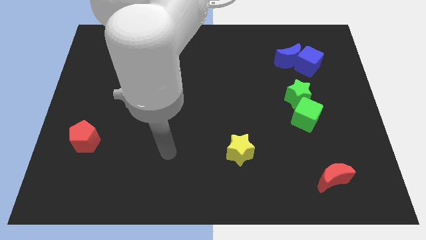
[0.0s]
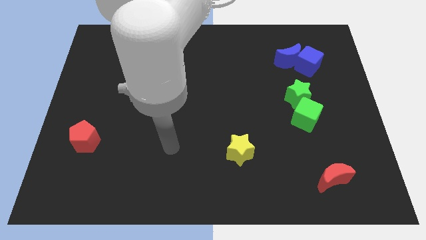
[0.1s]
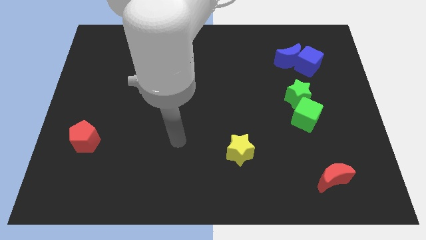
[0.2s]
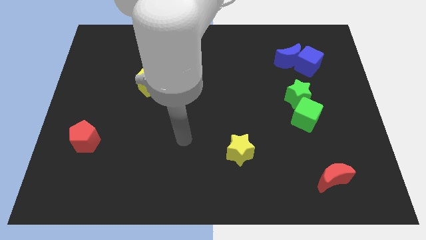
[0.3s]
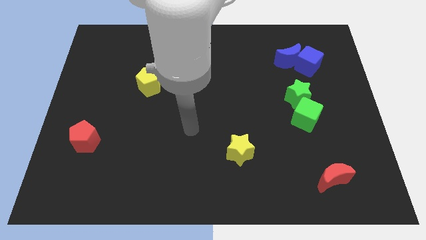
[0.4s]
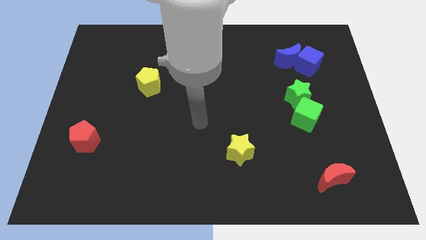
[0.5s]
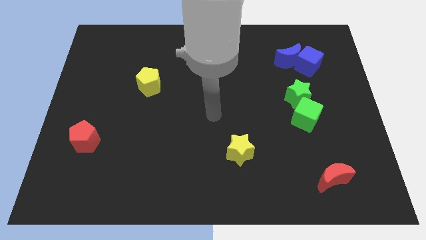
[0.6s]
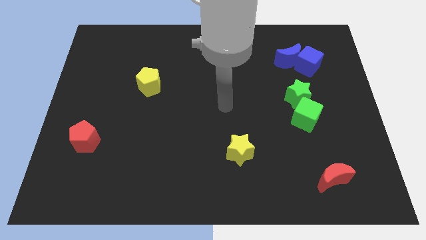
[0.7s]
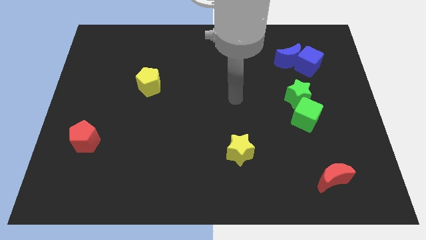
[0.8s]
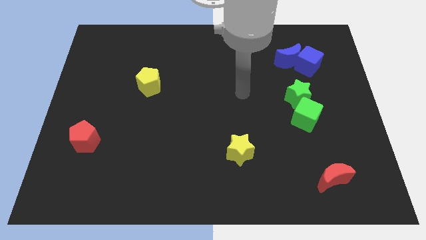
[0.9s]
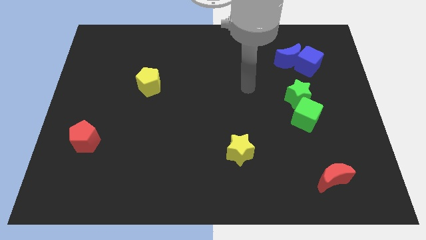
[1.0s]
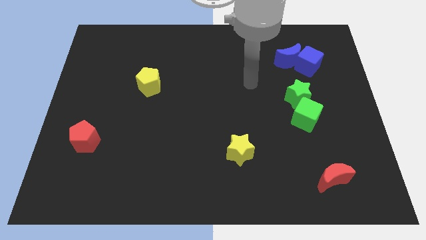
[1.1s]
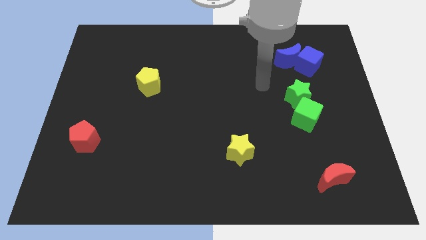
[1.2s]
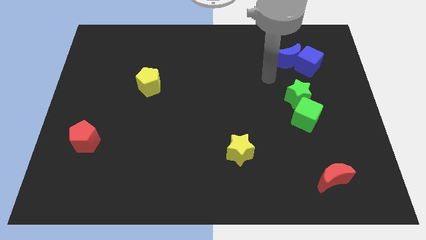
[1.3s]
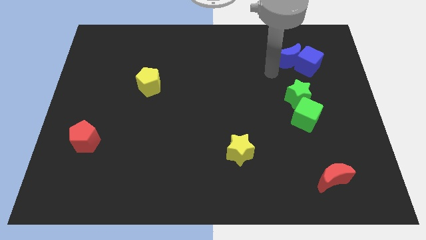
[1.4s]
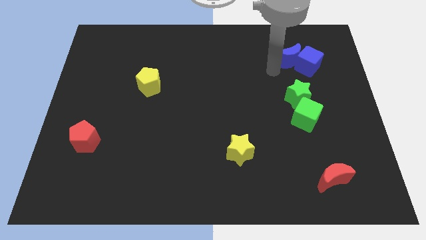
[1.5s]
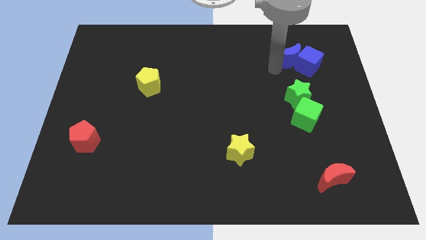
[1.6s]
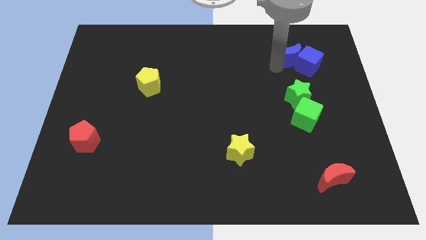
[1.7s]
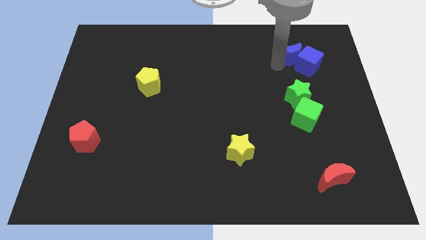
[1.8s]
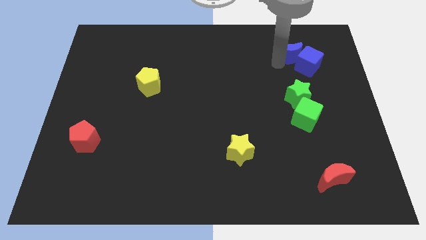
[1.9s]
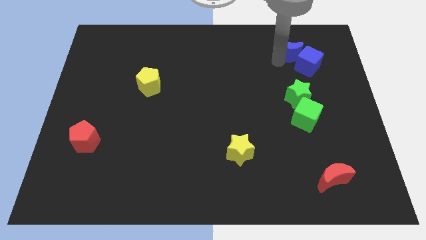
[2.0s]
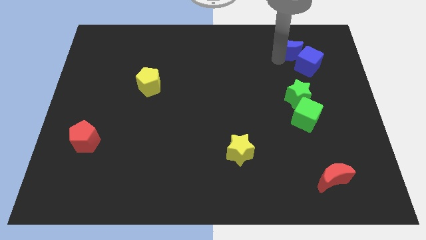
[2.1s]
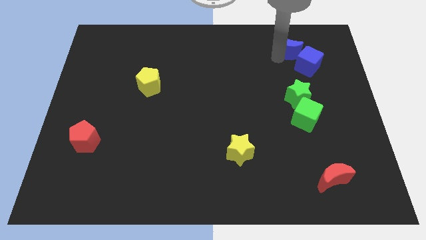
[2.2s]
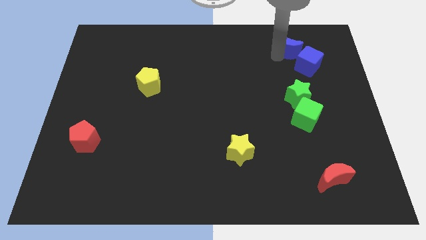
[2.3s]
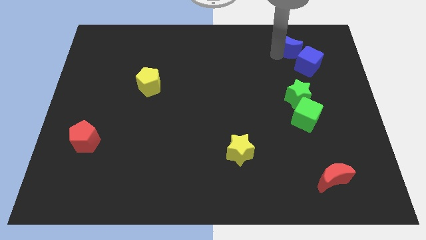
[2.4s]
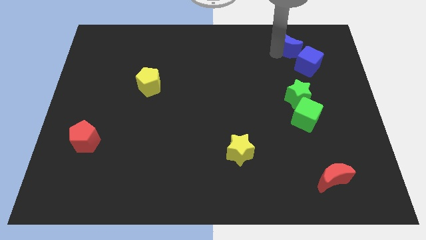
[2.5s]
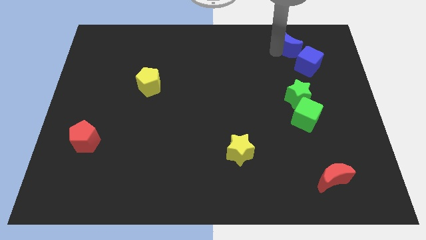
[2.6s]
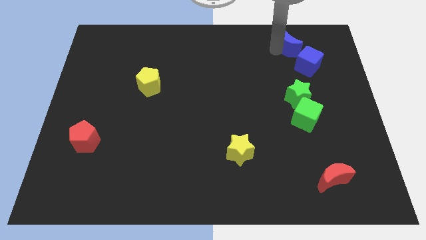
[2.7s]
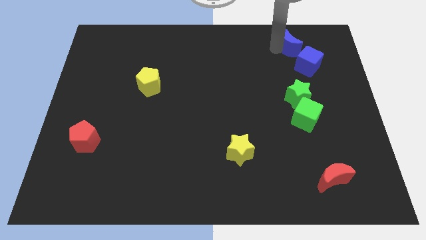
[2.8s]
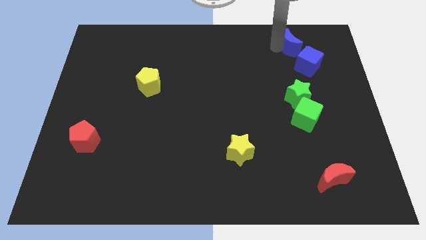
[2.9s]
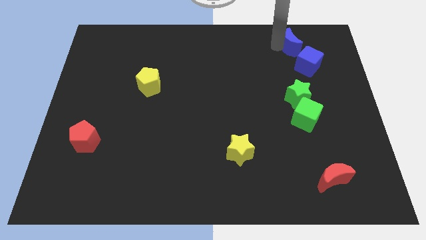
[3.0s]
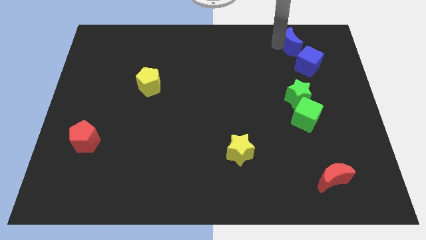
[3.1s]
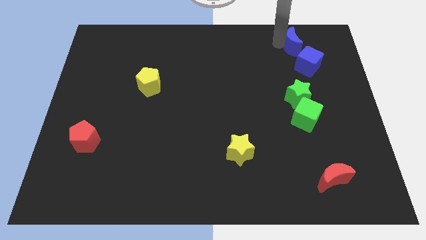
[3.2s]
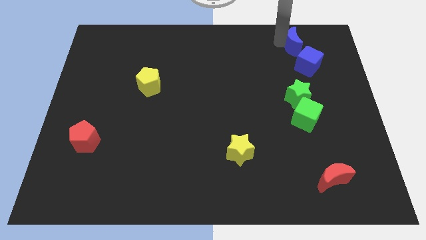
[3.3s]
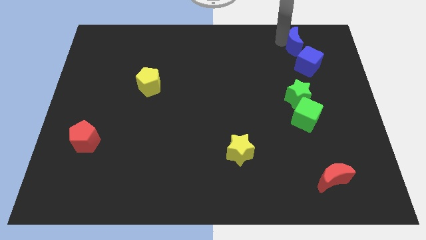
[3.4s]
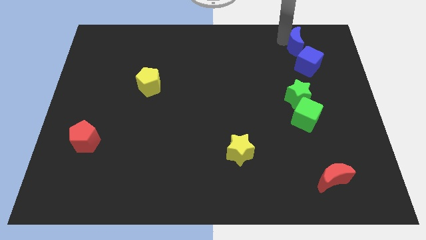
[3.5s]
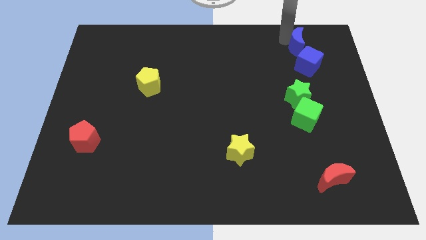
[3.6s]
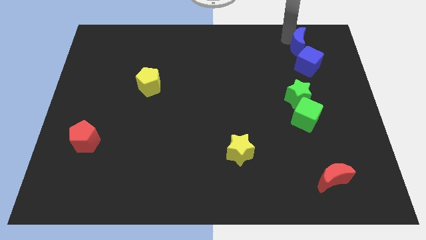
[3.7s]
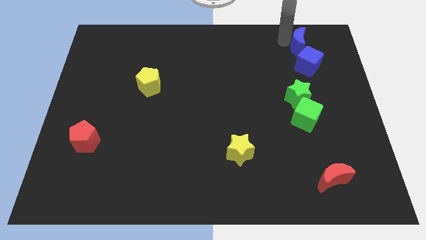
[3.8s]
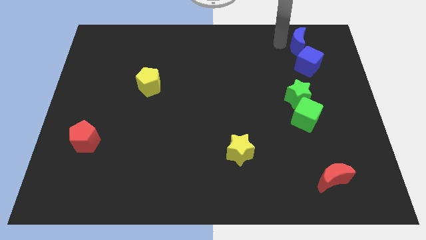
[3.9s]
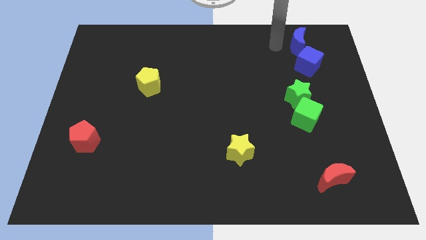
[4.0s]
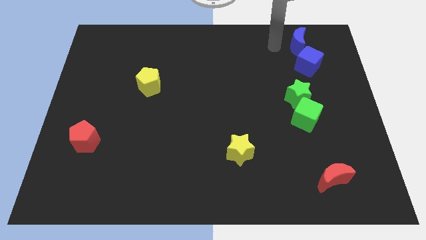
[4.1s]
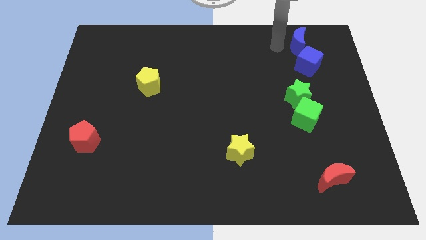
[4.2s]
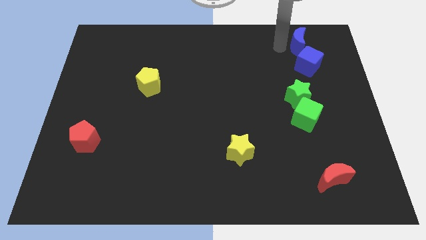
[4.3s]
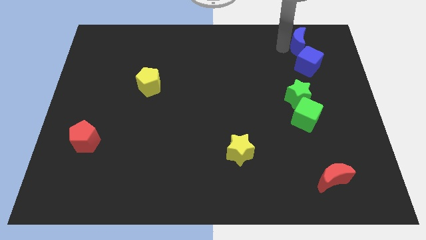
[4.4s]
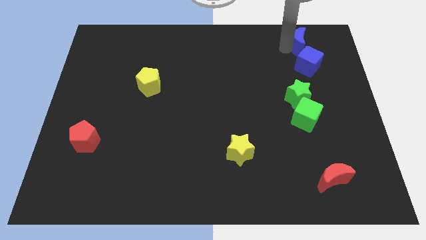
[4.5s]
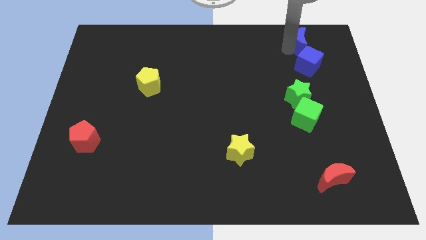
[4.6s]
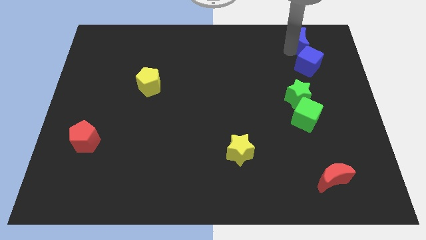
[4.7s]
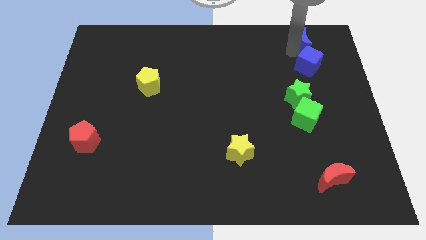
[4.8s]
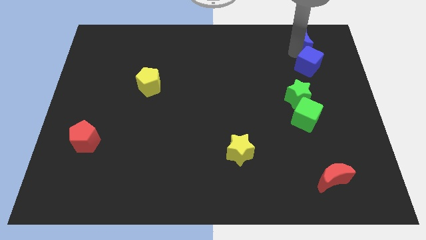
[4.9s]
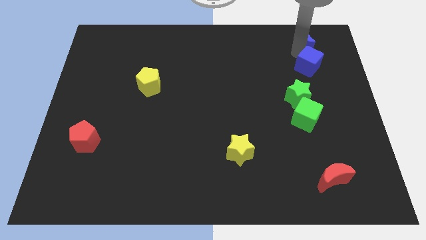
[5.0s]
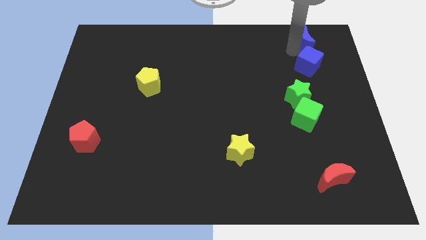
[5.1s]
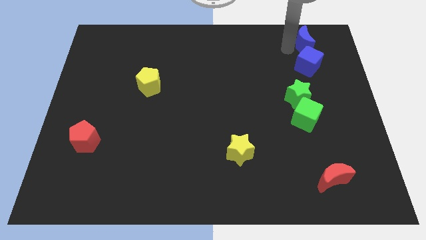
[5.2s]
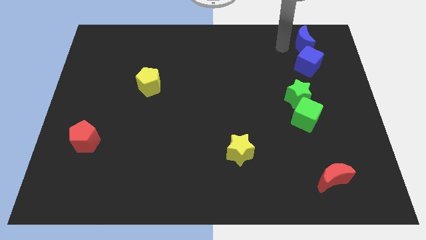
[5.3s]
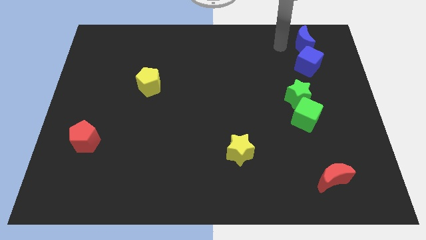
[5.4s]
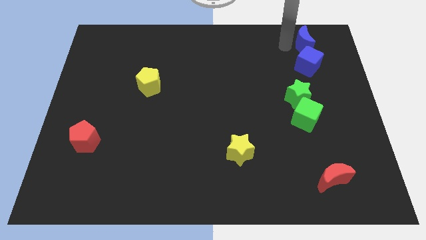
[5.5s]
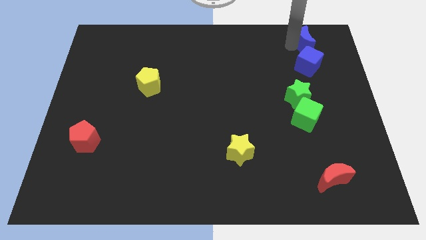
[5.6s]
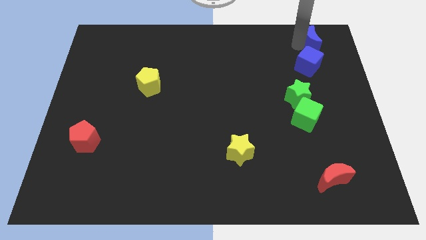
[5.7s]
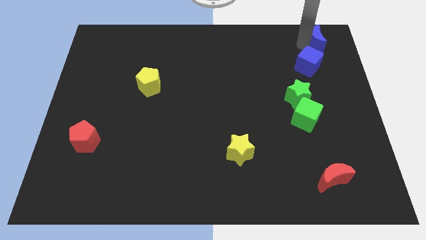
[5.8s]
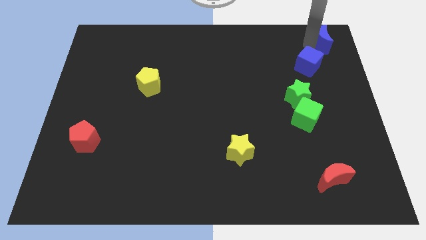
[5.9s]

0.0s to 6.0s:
push the blue moon to the top right of the board

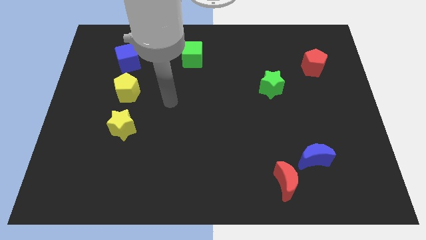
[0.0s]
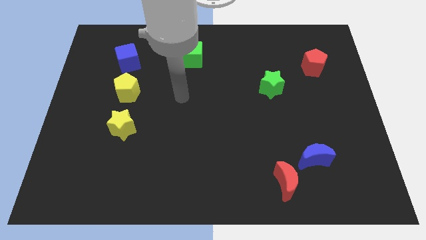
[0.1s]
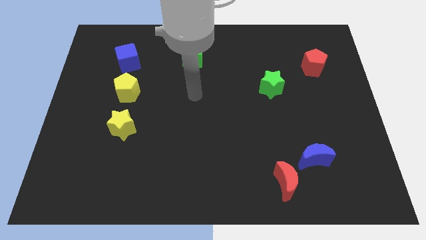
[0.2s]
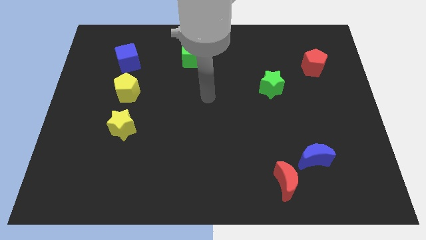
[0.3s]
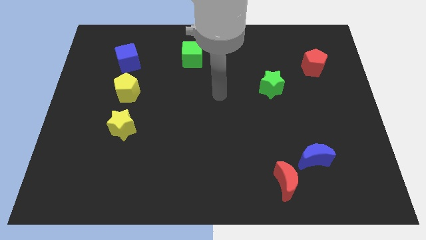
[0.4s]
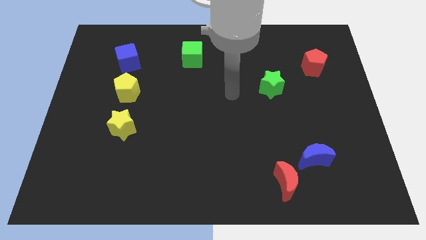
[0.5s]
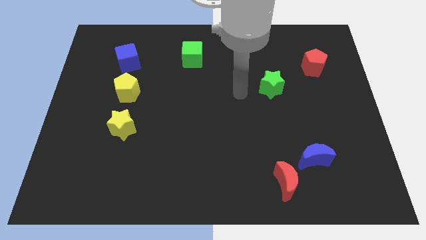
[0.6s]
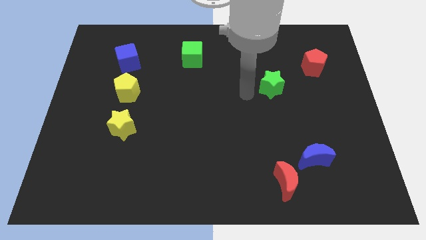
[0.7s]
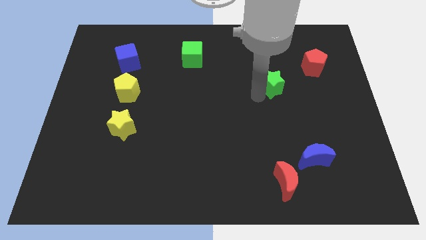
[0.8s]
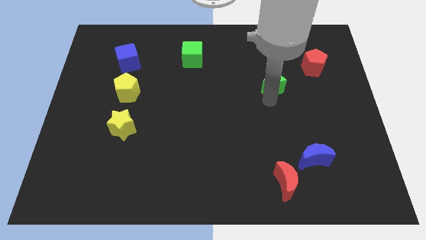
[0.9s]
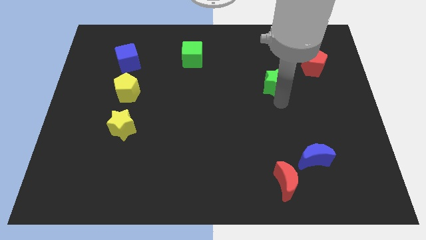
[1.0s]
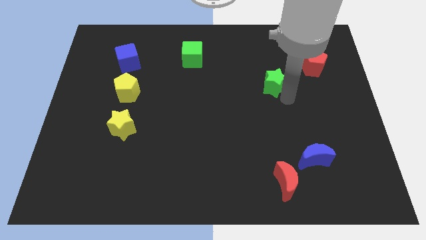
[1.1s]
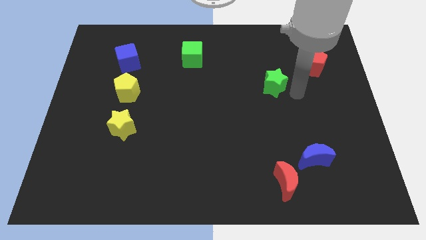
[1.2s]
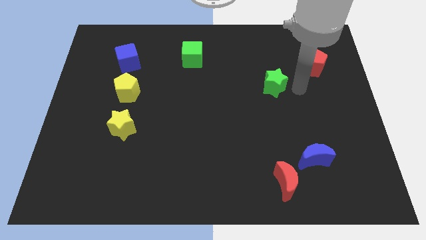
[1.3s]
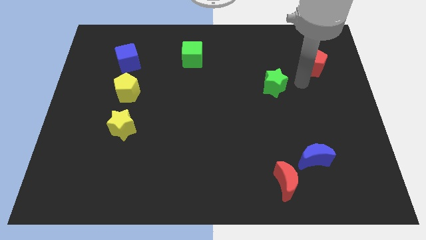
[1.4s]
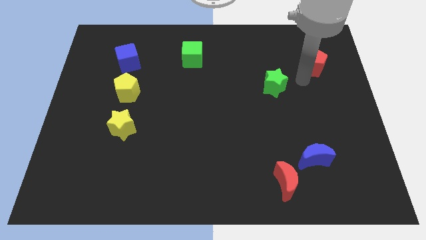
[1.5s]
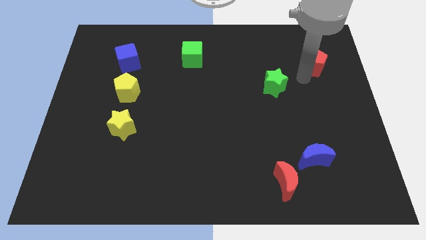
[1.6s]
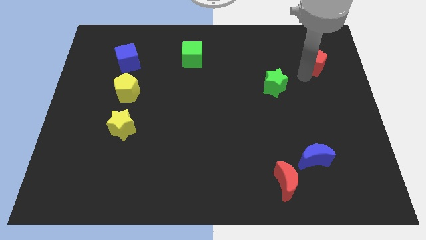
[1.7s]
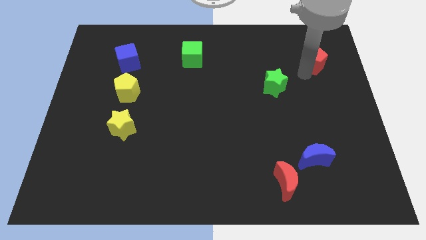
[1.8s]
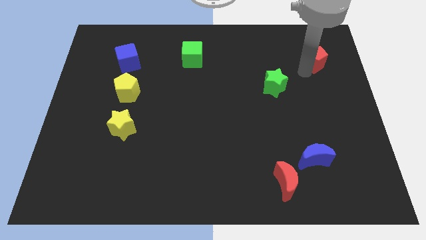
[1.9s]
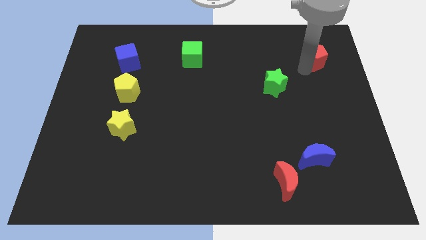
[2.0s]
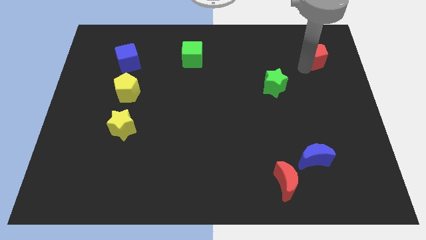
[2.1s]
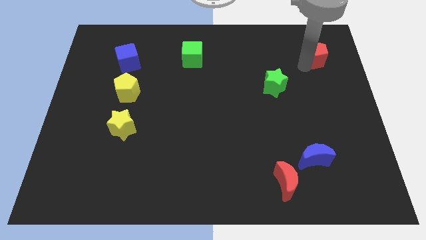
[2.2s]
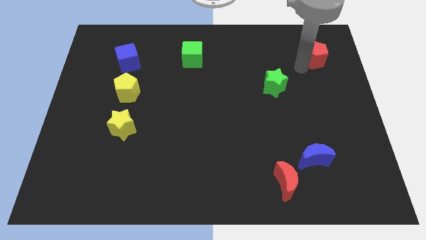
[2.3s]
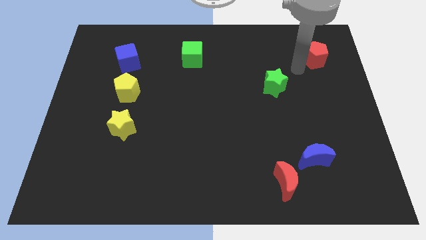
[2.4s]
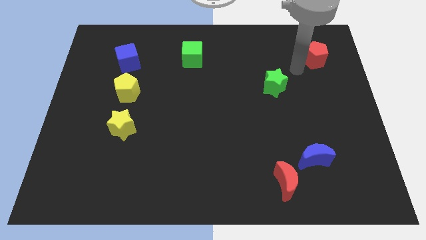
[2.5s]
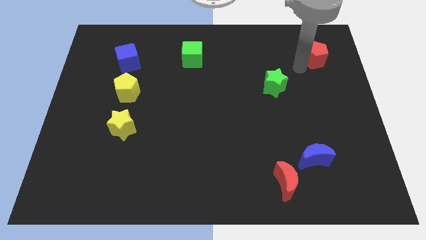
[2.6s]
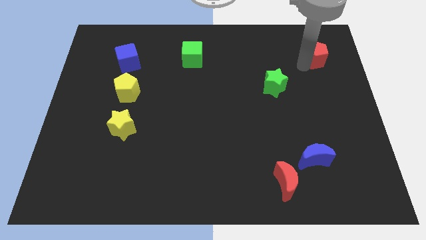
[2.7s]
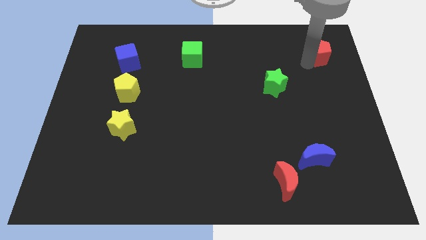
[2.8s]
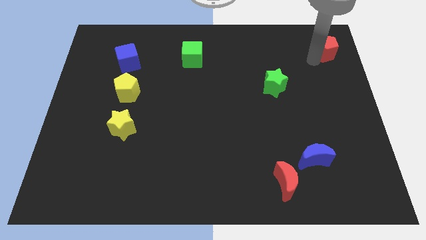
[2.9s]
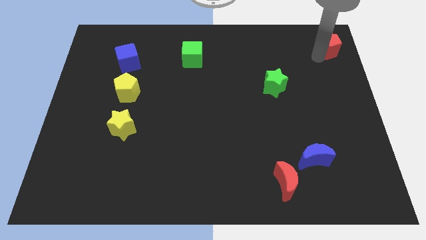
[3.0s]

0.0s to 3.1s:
put the red pentagon to the upper right corner
